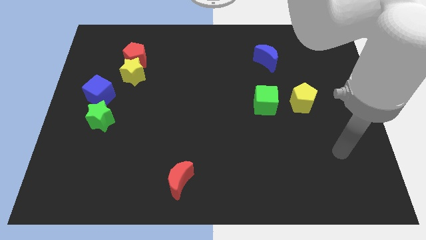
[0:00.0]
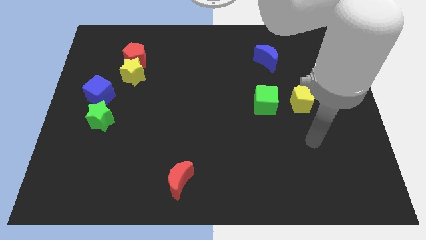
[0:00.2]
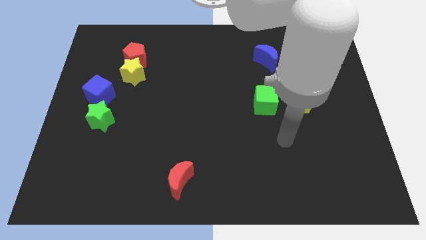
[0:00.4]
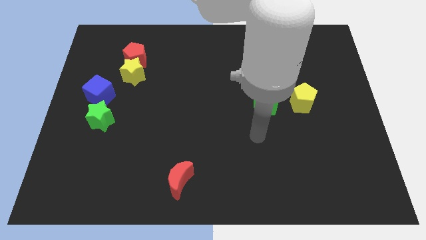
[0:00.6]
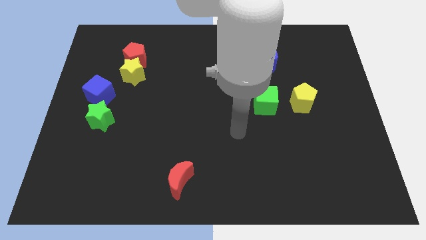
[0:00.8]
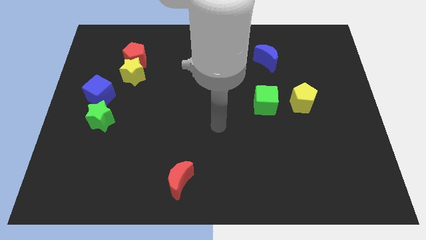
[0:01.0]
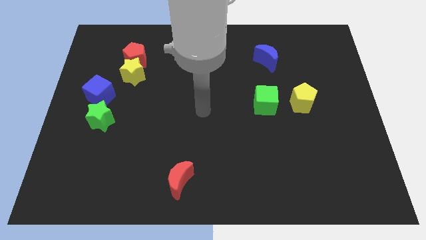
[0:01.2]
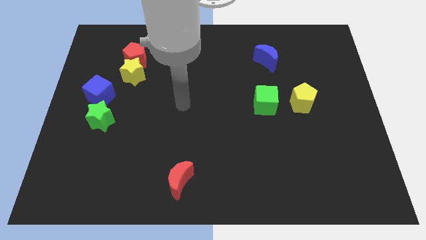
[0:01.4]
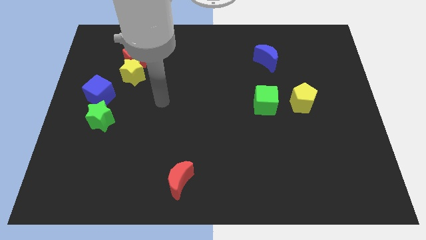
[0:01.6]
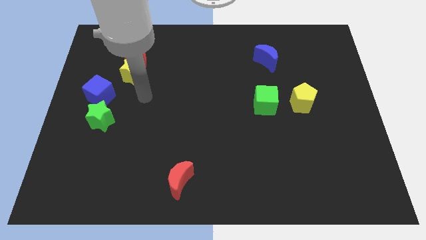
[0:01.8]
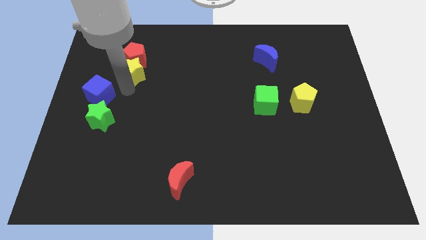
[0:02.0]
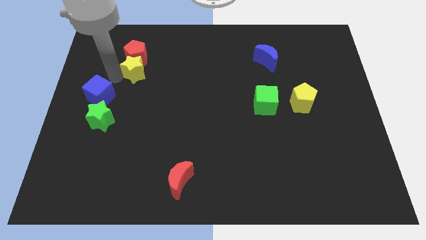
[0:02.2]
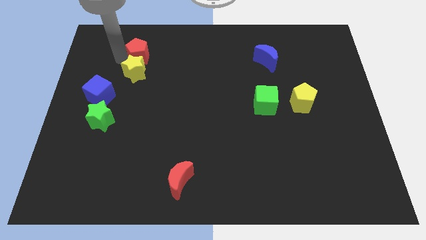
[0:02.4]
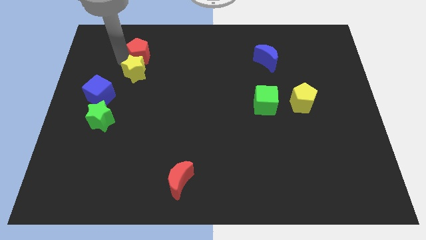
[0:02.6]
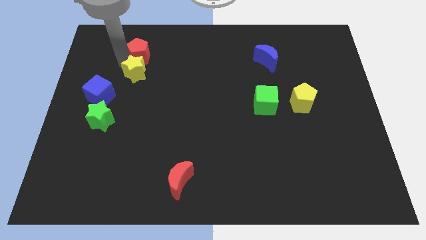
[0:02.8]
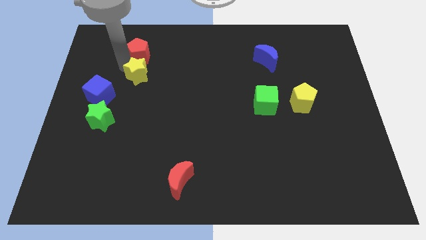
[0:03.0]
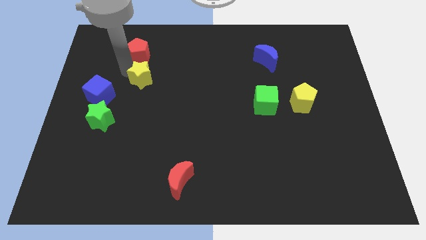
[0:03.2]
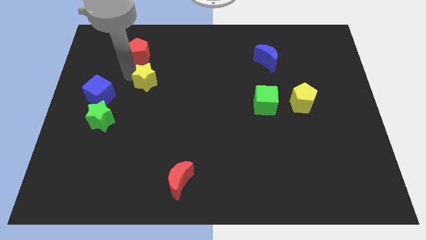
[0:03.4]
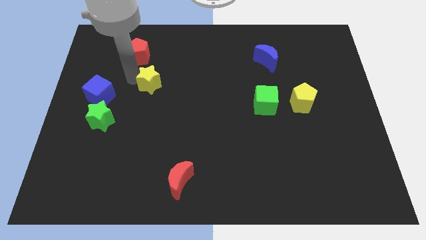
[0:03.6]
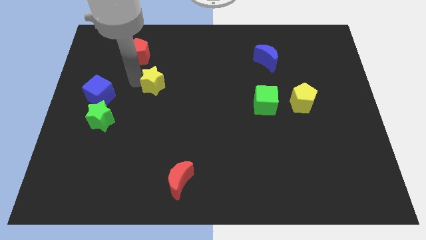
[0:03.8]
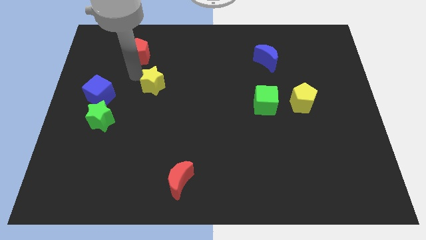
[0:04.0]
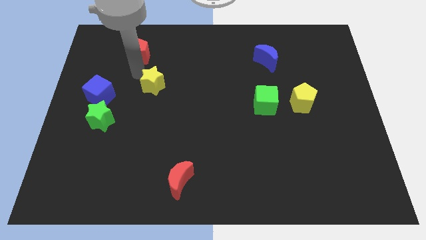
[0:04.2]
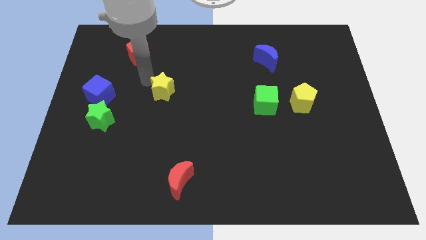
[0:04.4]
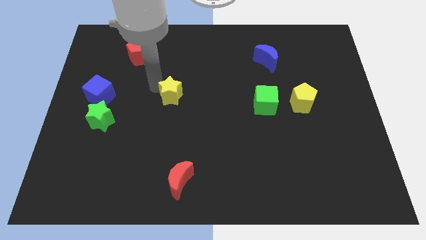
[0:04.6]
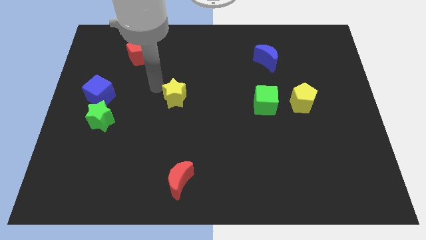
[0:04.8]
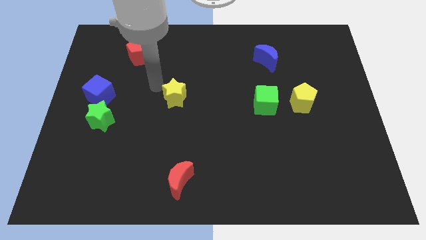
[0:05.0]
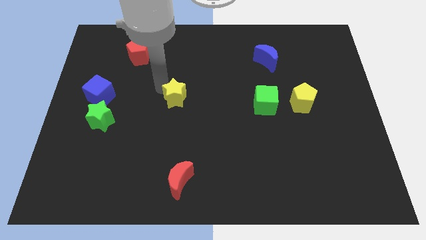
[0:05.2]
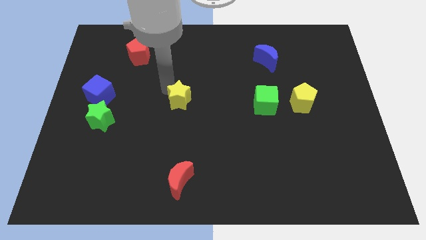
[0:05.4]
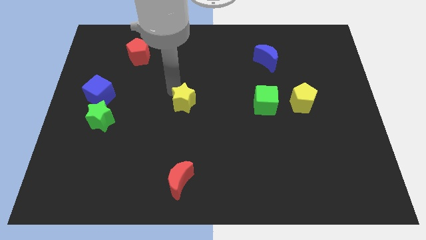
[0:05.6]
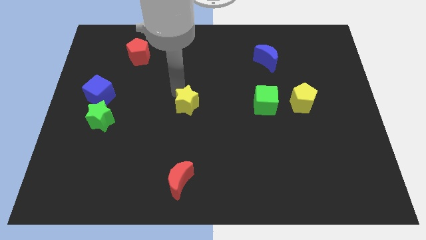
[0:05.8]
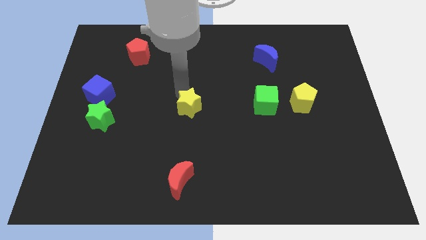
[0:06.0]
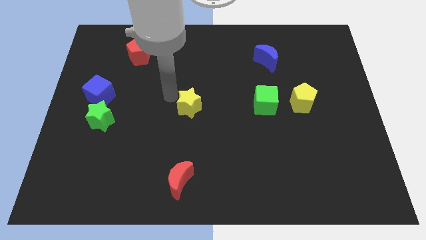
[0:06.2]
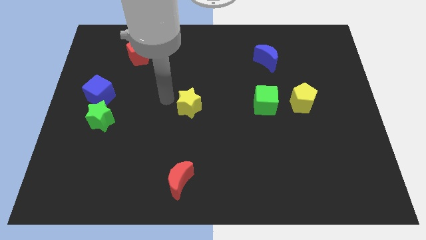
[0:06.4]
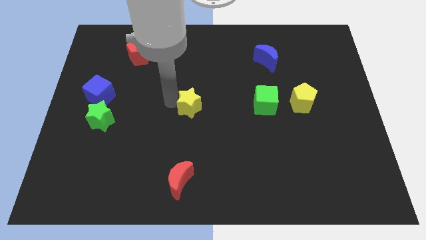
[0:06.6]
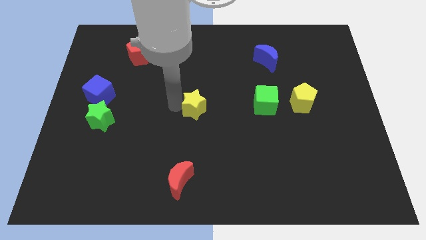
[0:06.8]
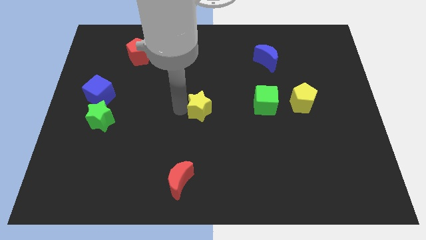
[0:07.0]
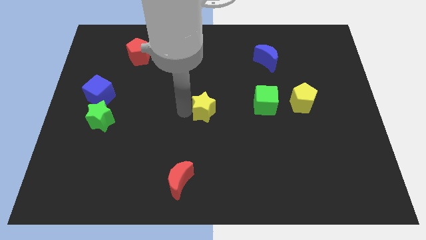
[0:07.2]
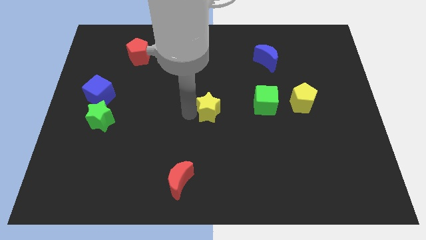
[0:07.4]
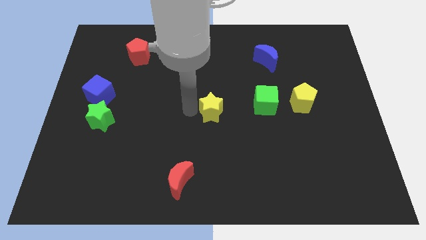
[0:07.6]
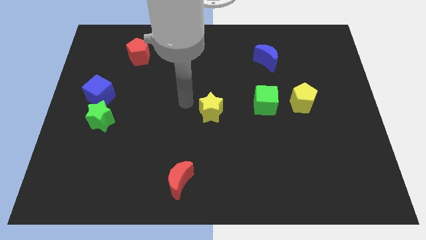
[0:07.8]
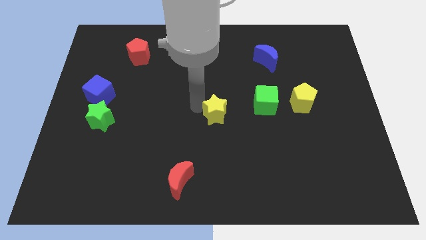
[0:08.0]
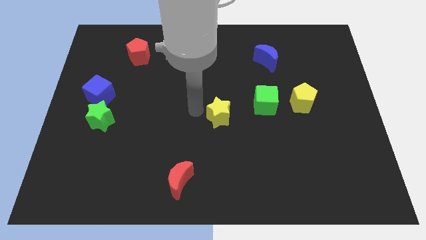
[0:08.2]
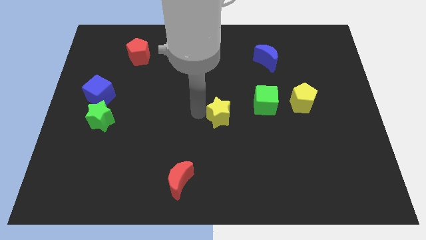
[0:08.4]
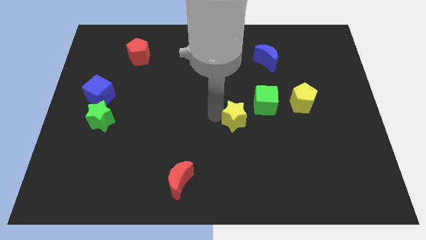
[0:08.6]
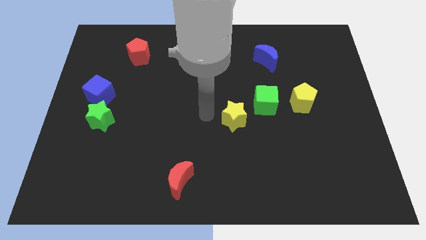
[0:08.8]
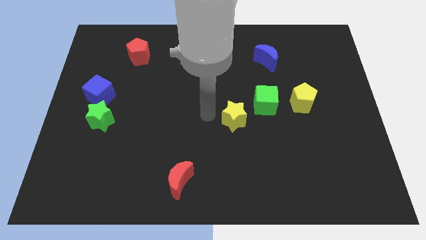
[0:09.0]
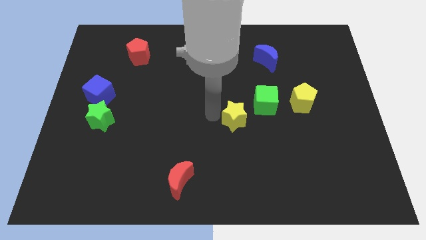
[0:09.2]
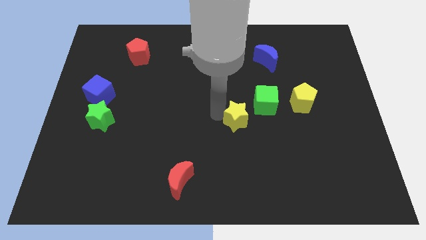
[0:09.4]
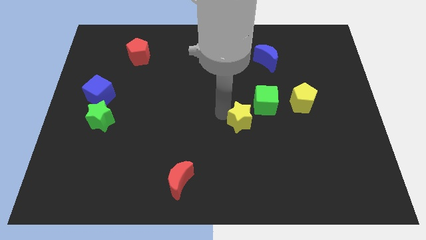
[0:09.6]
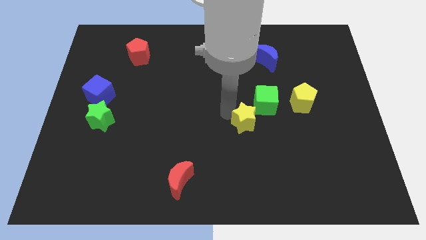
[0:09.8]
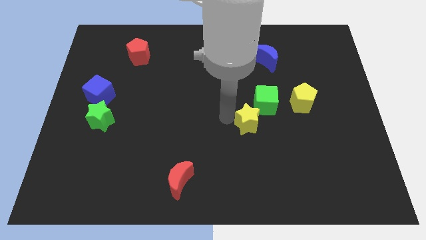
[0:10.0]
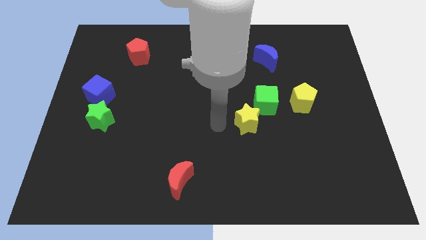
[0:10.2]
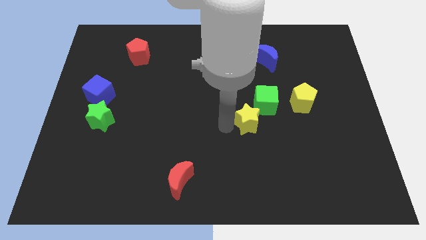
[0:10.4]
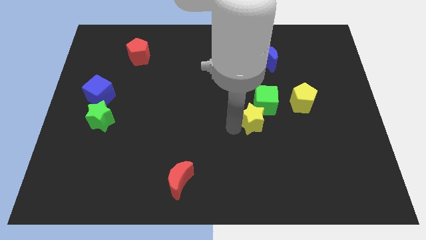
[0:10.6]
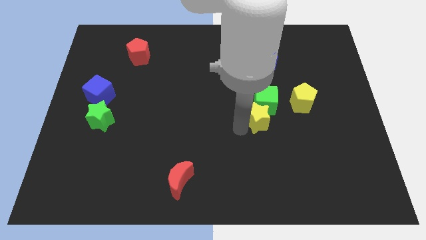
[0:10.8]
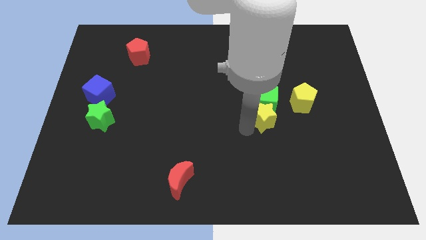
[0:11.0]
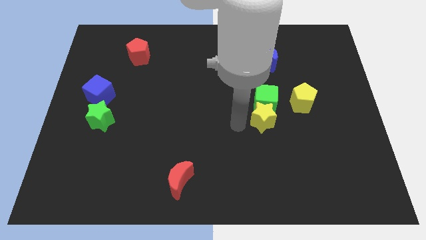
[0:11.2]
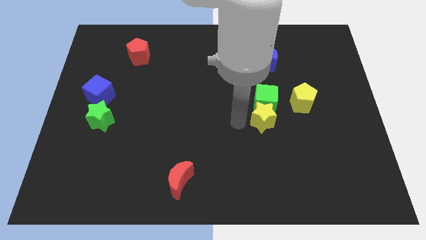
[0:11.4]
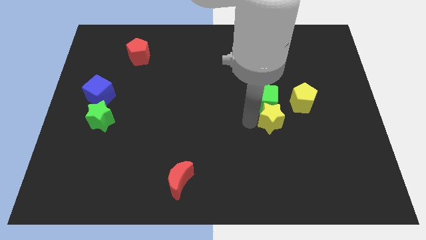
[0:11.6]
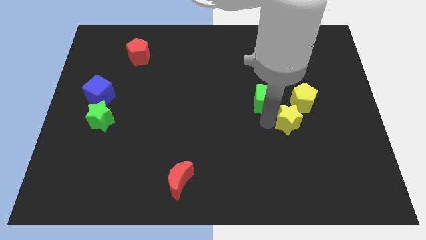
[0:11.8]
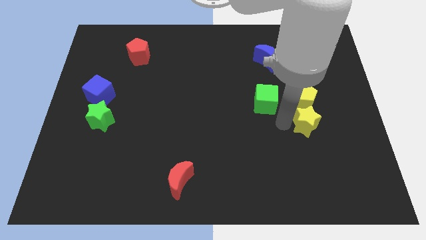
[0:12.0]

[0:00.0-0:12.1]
move the yellow star to the bottom right side of the yellow pentagon
